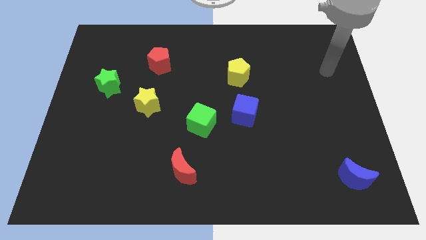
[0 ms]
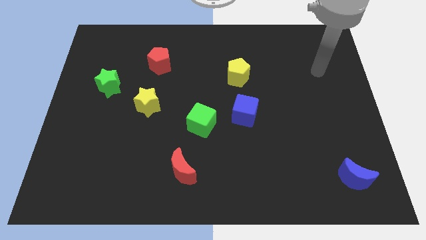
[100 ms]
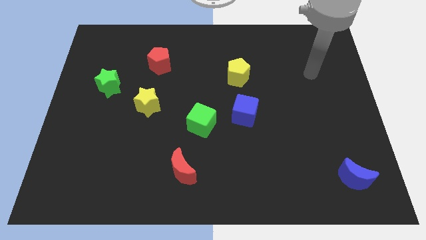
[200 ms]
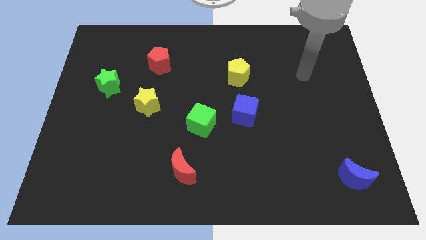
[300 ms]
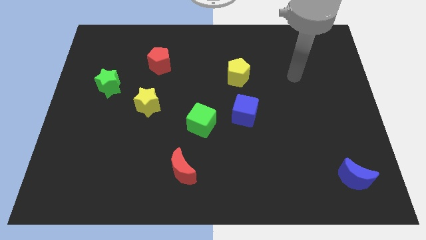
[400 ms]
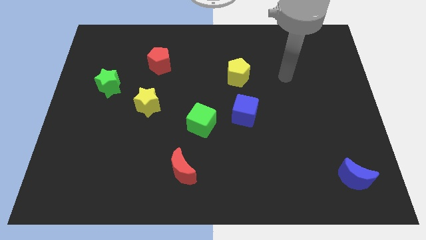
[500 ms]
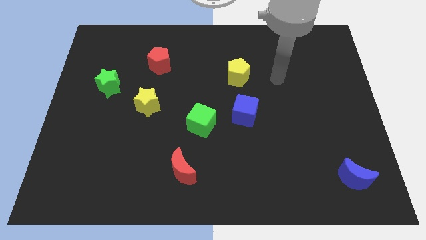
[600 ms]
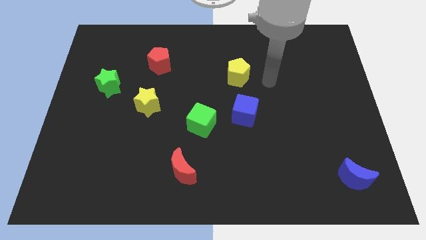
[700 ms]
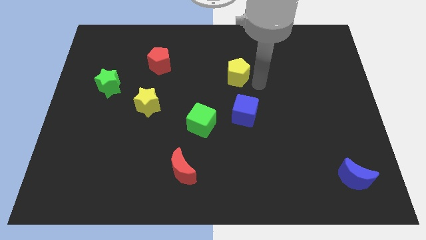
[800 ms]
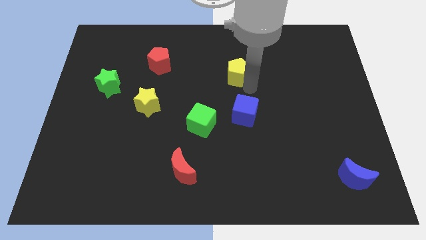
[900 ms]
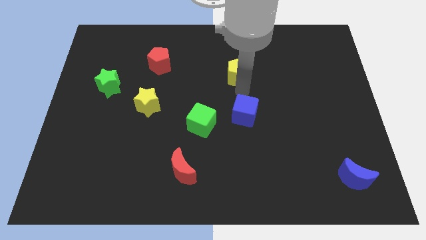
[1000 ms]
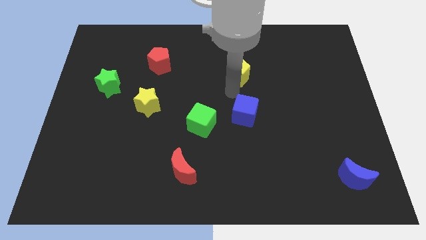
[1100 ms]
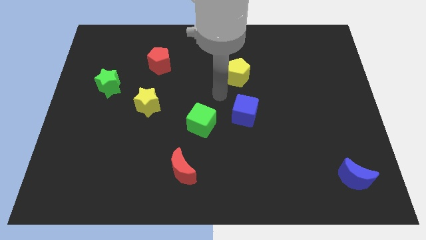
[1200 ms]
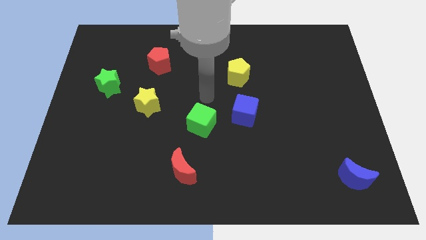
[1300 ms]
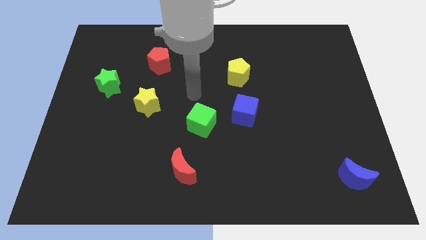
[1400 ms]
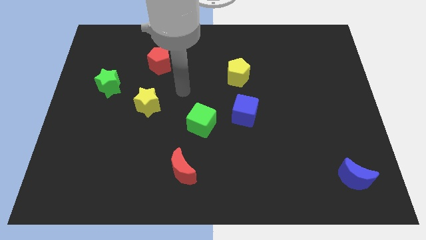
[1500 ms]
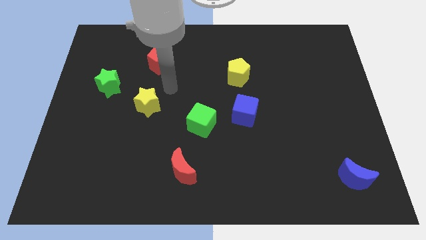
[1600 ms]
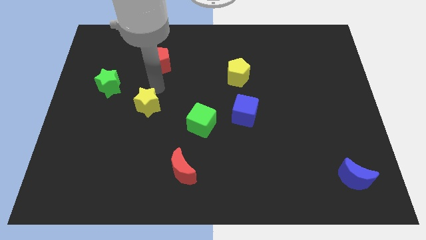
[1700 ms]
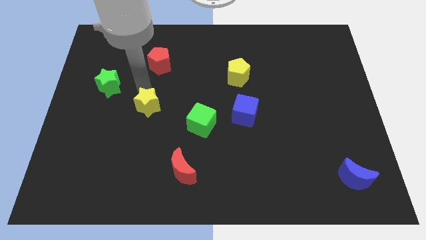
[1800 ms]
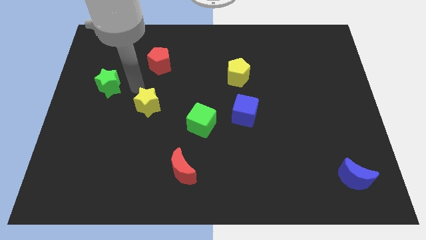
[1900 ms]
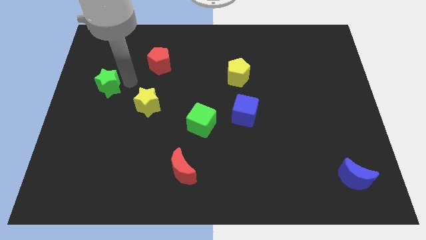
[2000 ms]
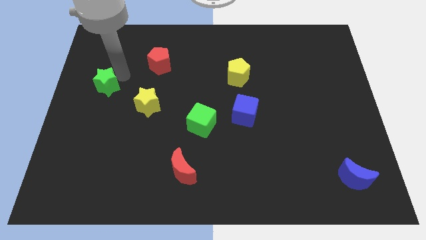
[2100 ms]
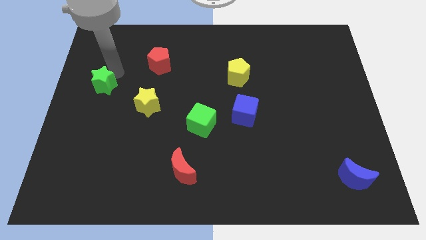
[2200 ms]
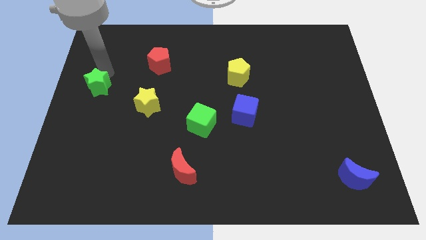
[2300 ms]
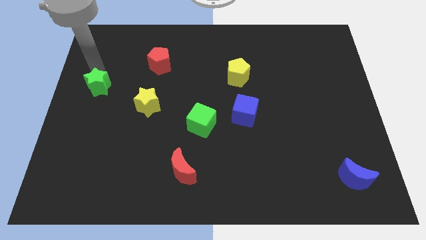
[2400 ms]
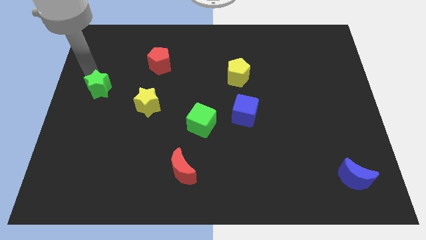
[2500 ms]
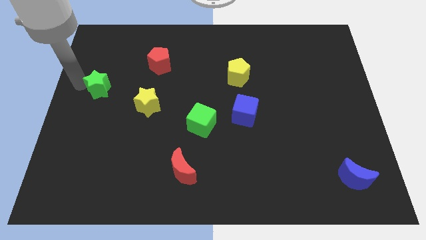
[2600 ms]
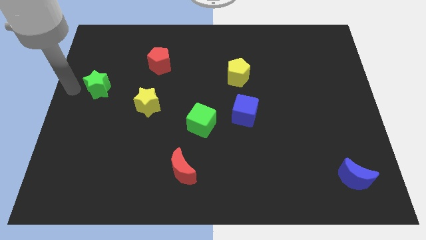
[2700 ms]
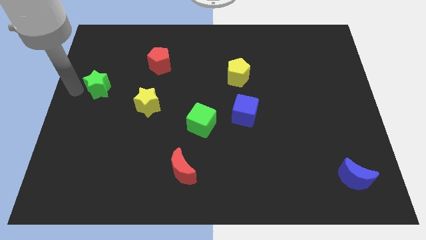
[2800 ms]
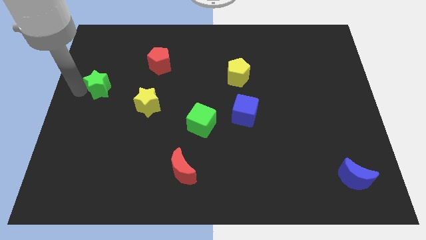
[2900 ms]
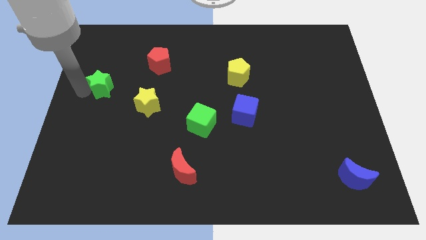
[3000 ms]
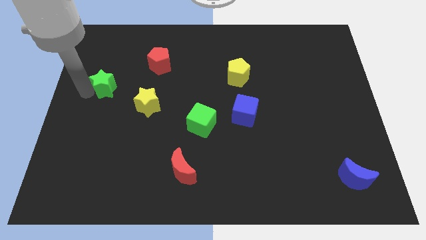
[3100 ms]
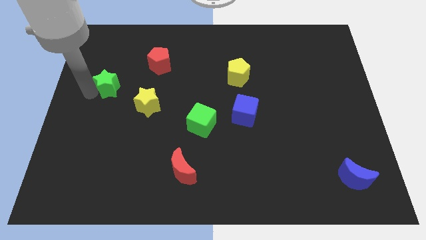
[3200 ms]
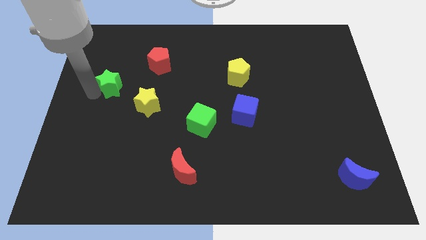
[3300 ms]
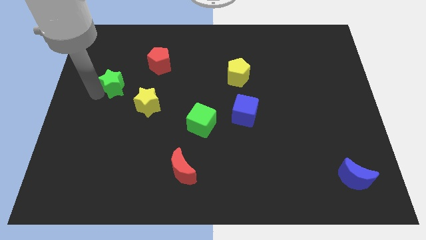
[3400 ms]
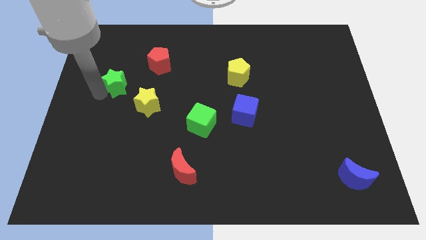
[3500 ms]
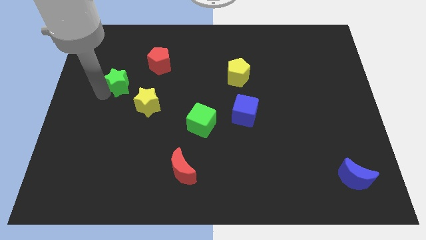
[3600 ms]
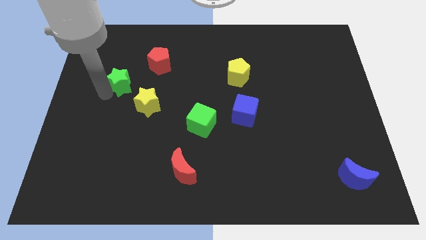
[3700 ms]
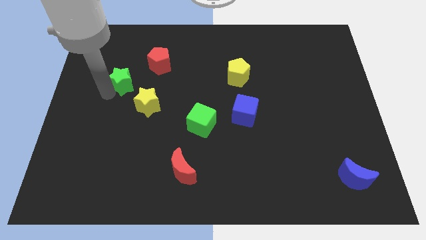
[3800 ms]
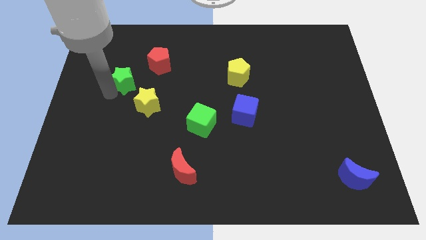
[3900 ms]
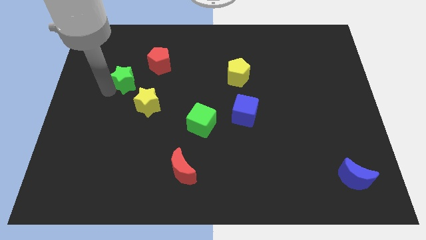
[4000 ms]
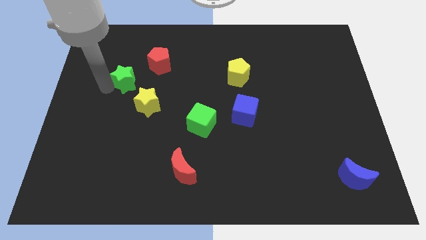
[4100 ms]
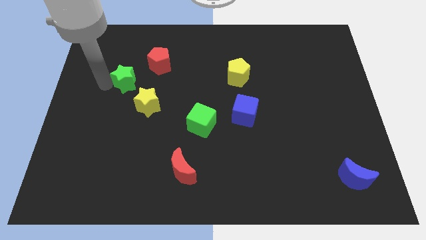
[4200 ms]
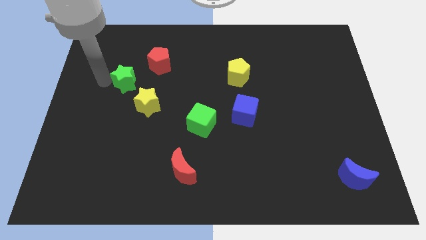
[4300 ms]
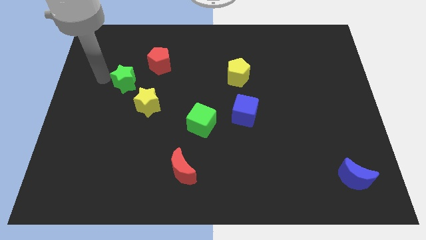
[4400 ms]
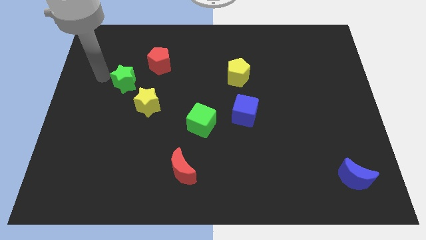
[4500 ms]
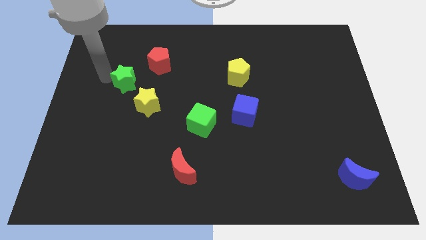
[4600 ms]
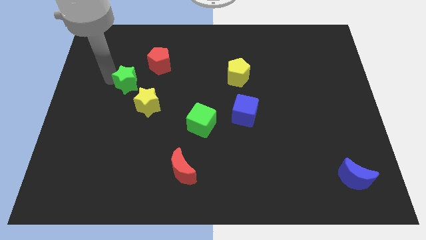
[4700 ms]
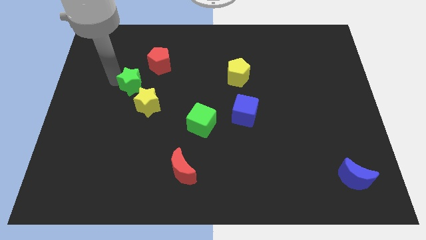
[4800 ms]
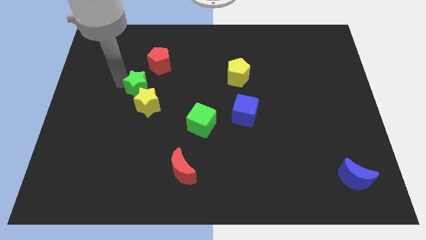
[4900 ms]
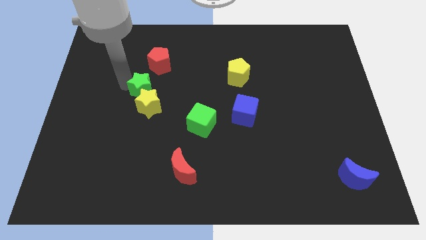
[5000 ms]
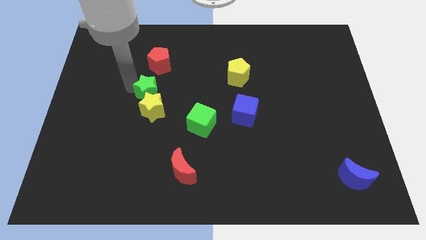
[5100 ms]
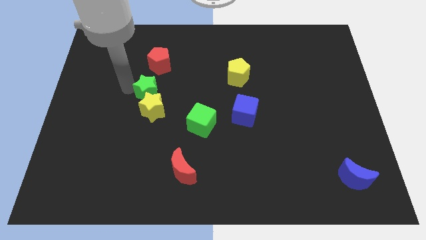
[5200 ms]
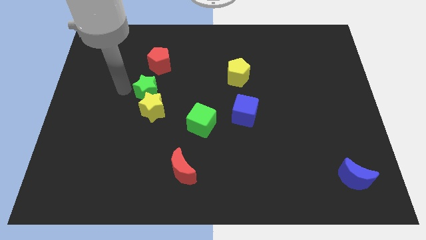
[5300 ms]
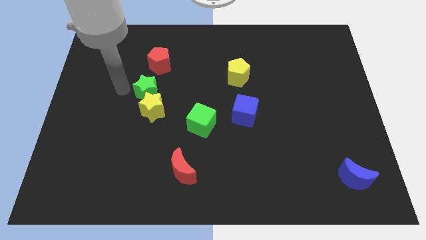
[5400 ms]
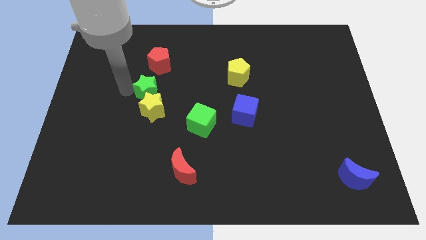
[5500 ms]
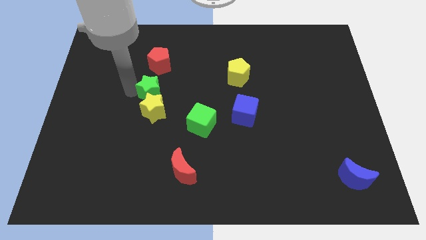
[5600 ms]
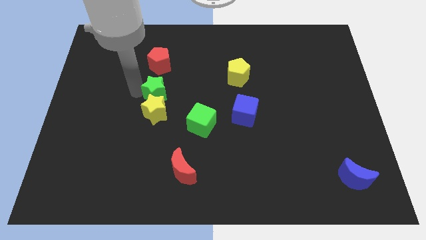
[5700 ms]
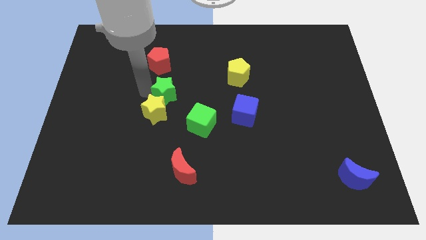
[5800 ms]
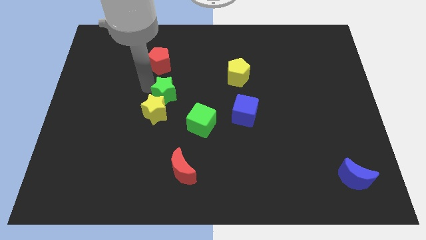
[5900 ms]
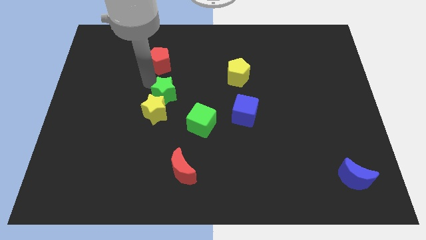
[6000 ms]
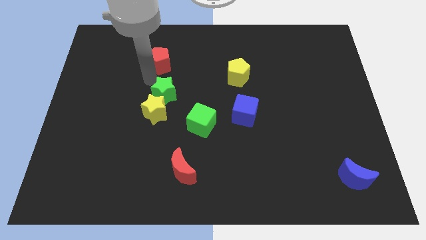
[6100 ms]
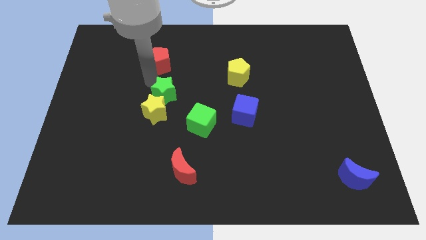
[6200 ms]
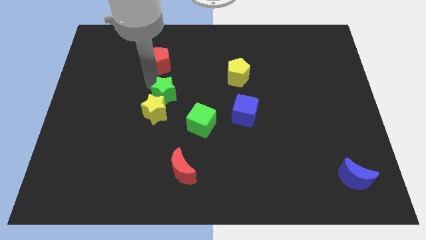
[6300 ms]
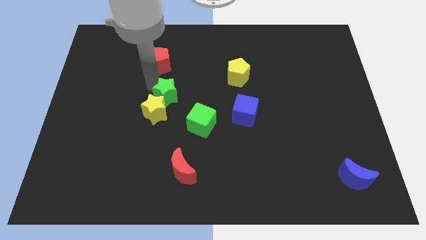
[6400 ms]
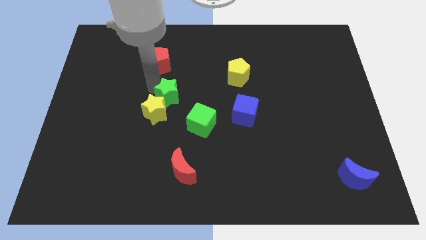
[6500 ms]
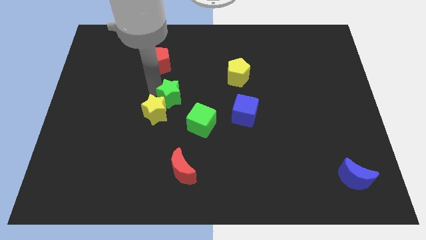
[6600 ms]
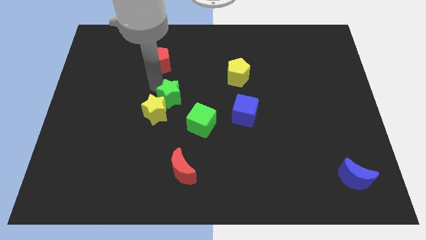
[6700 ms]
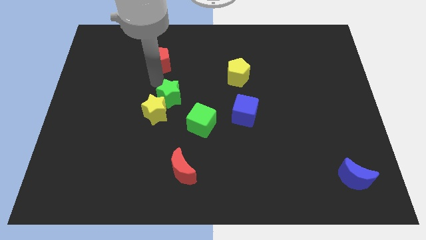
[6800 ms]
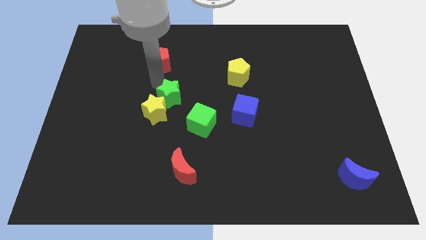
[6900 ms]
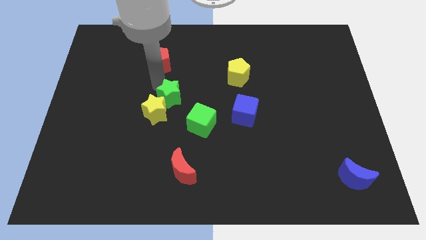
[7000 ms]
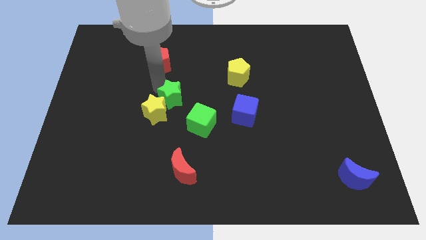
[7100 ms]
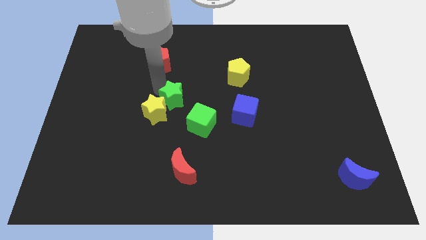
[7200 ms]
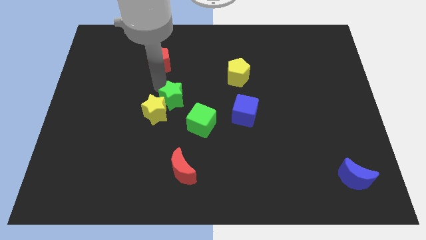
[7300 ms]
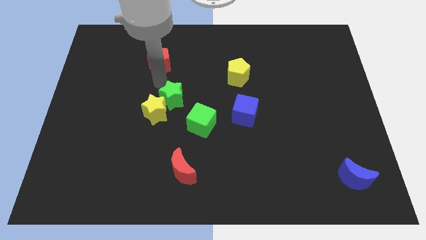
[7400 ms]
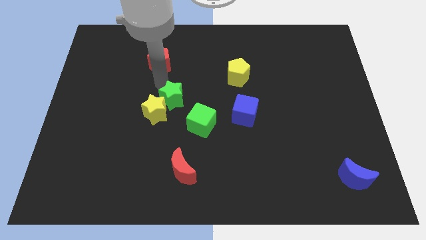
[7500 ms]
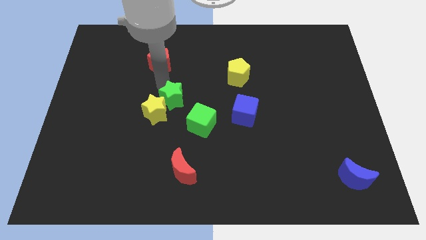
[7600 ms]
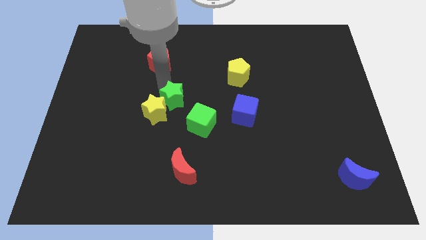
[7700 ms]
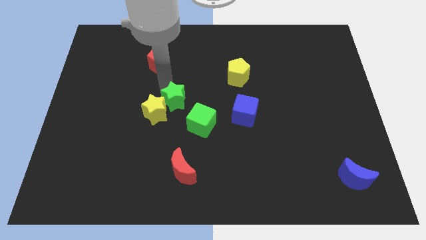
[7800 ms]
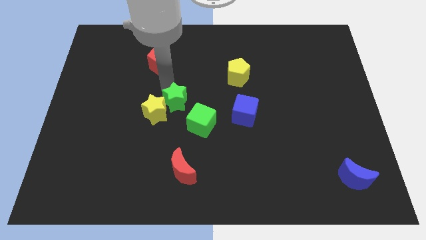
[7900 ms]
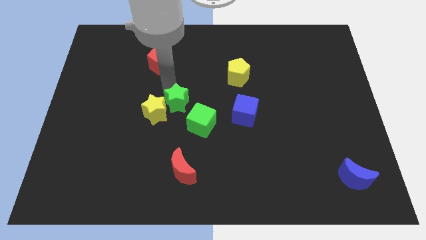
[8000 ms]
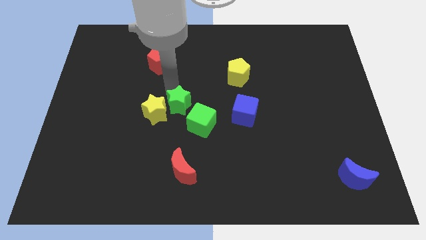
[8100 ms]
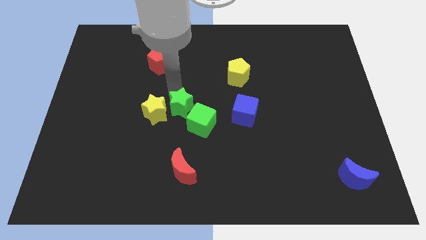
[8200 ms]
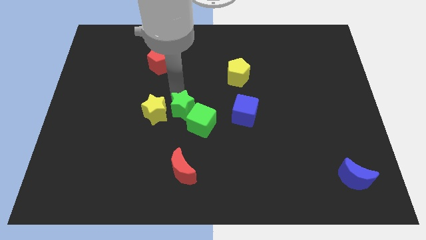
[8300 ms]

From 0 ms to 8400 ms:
slide the green star to the green cube
